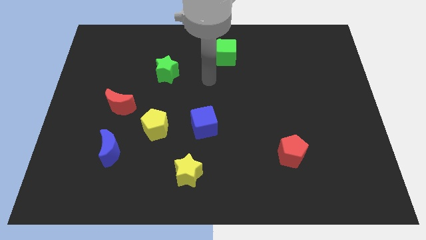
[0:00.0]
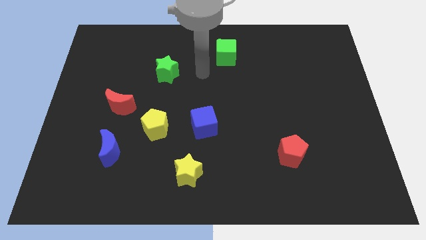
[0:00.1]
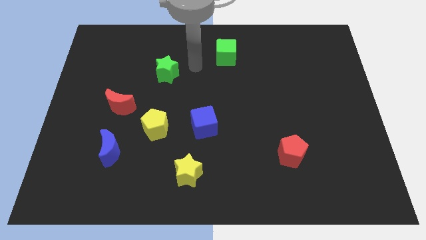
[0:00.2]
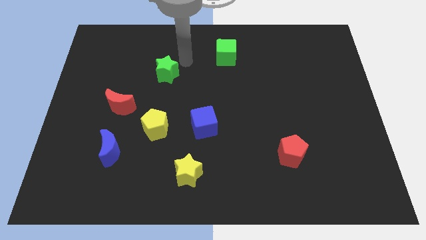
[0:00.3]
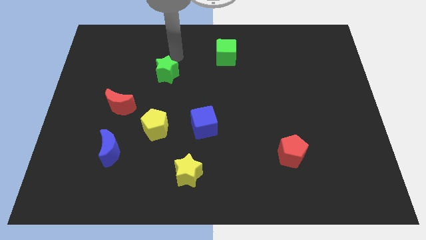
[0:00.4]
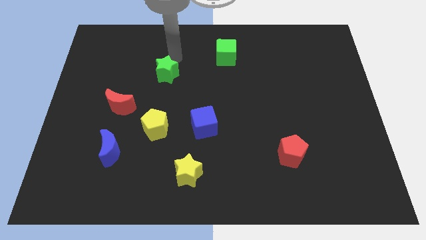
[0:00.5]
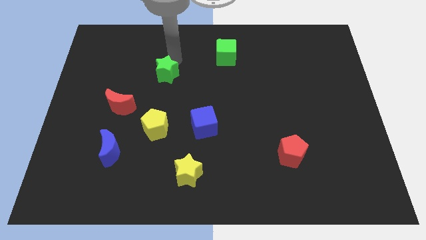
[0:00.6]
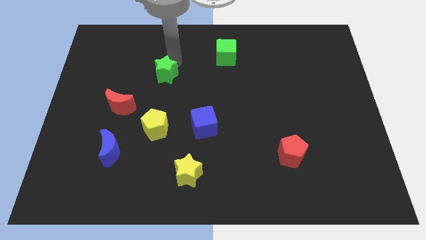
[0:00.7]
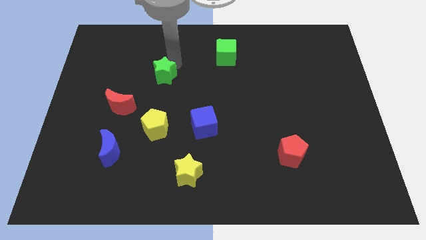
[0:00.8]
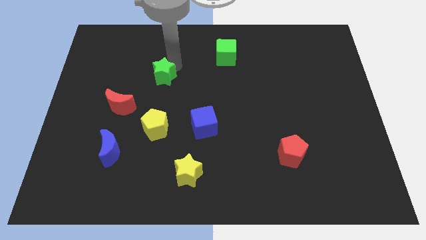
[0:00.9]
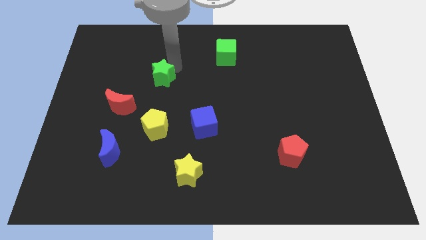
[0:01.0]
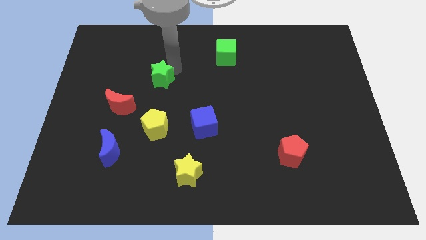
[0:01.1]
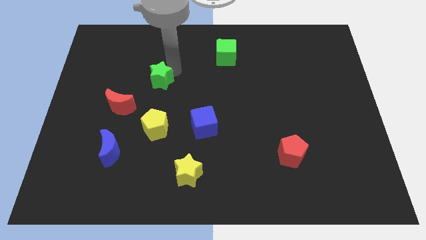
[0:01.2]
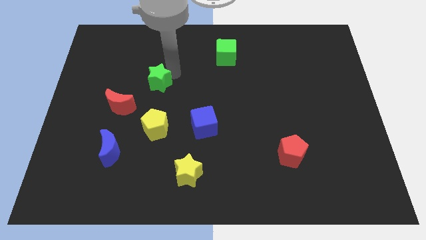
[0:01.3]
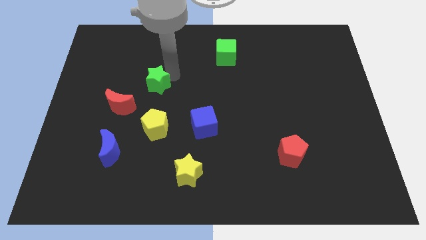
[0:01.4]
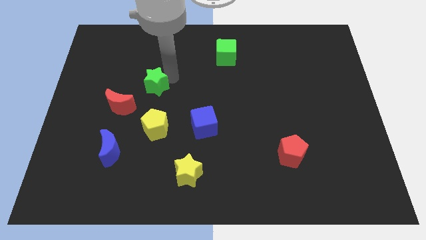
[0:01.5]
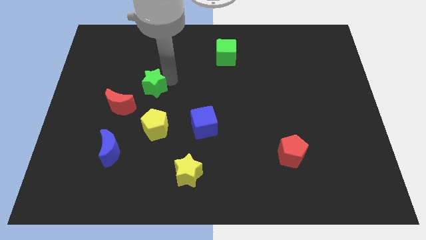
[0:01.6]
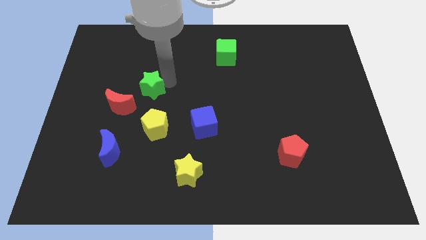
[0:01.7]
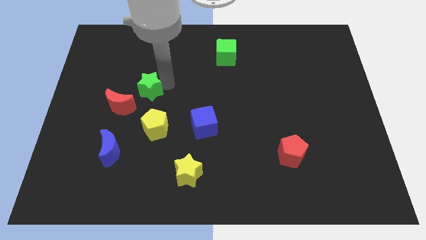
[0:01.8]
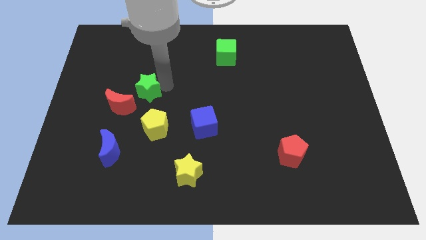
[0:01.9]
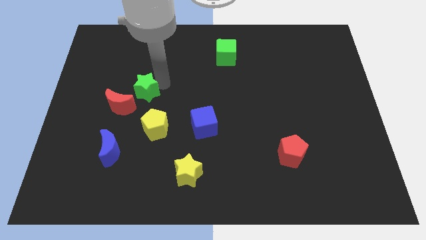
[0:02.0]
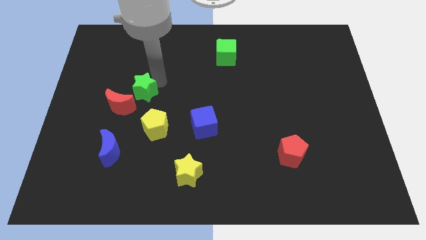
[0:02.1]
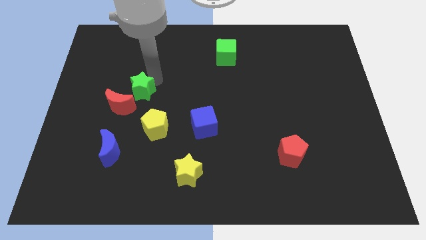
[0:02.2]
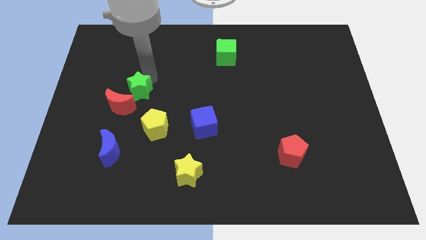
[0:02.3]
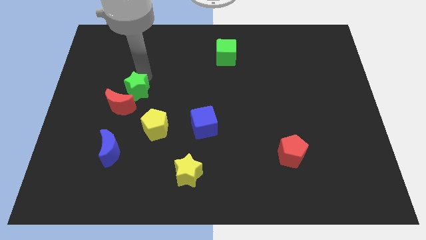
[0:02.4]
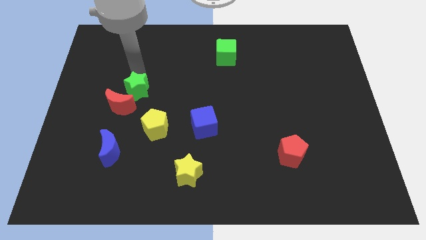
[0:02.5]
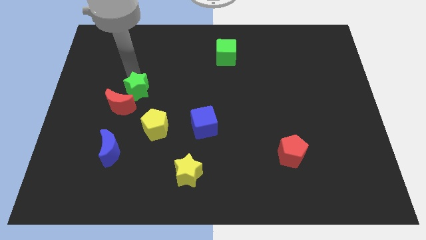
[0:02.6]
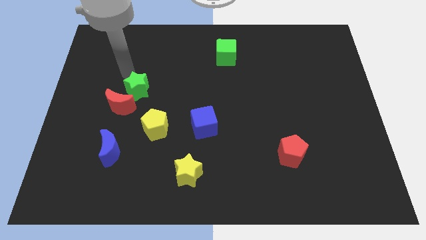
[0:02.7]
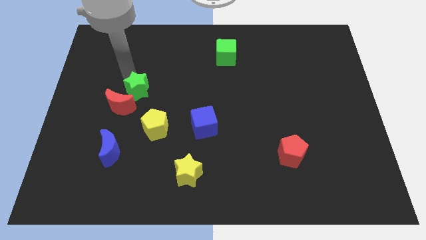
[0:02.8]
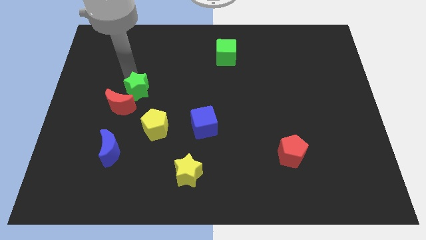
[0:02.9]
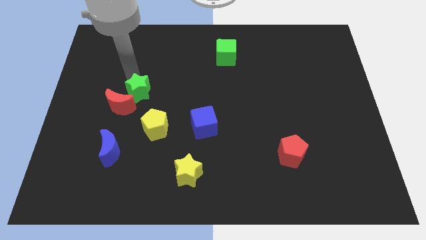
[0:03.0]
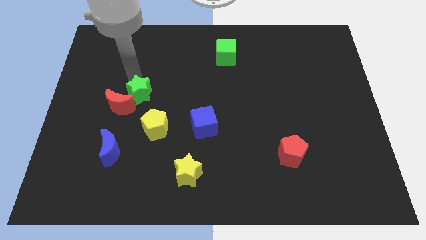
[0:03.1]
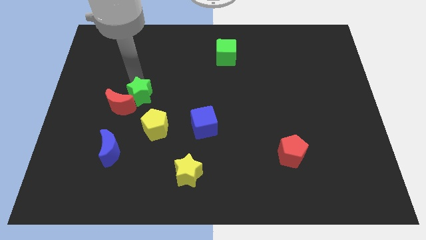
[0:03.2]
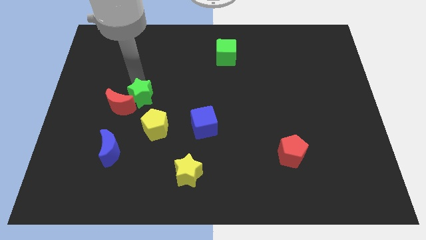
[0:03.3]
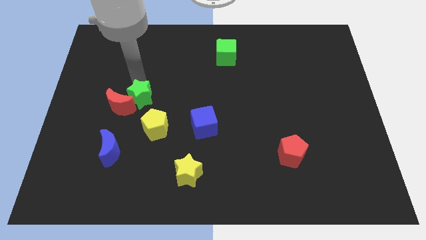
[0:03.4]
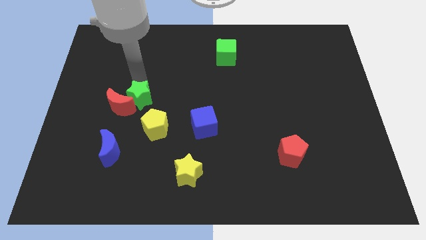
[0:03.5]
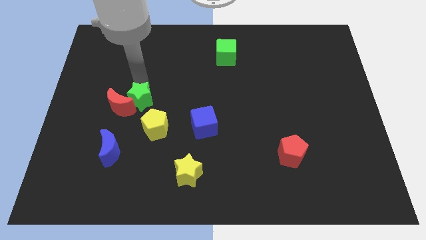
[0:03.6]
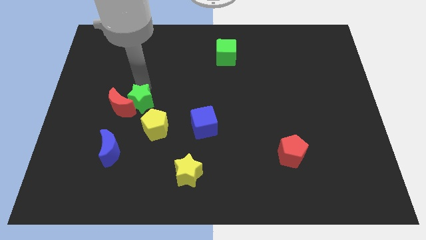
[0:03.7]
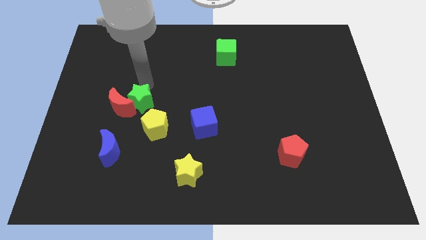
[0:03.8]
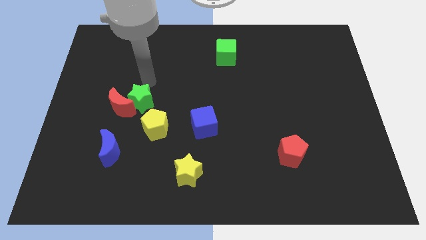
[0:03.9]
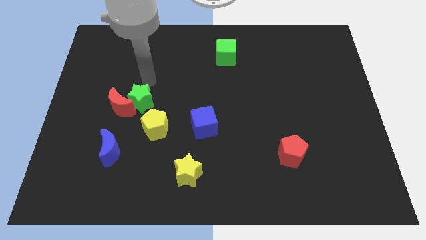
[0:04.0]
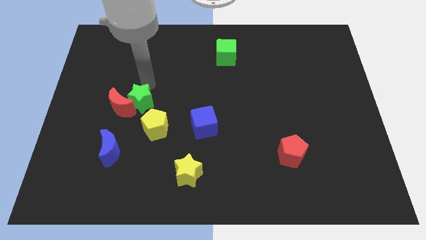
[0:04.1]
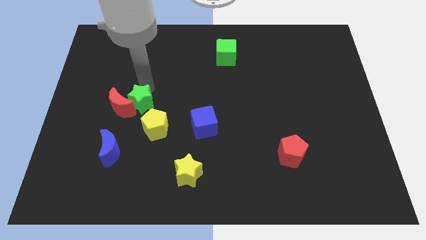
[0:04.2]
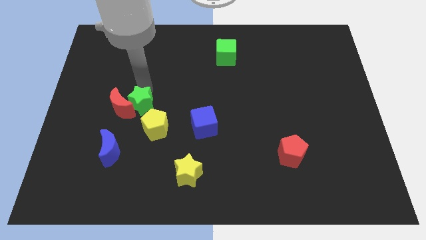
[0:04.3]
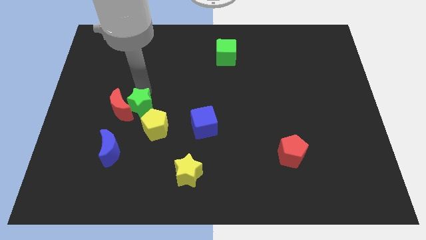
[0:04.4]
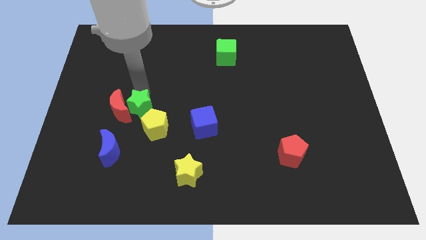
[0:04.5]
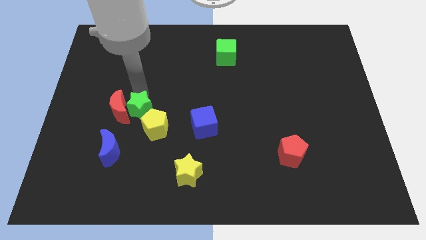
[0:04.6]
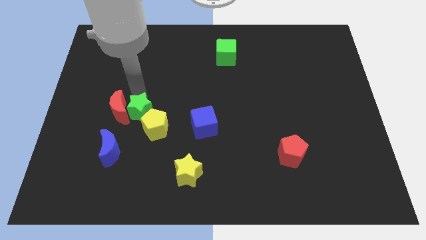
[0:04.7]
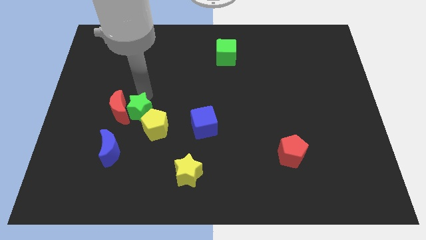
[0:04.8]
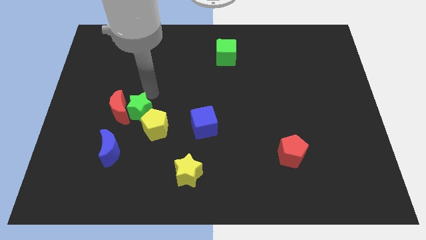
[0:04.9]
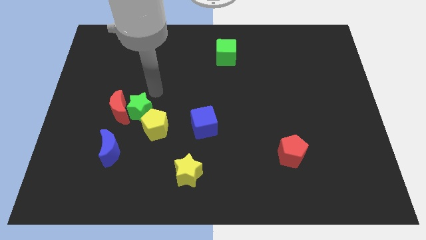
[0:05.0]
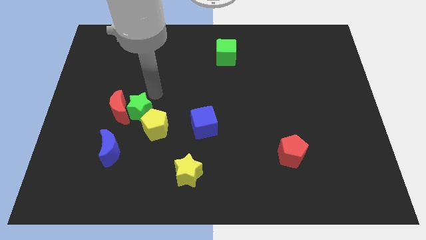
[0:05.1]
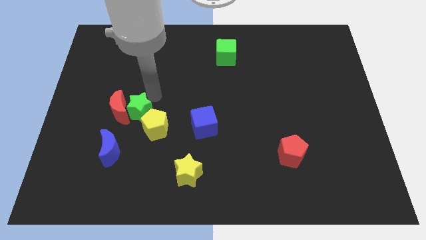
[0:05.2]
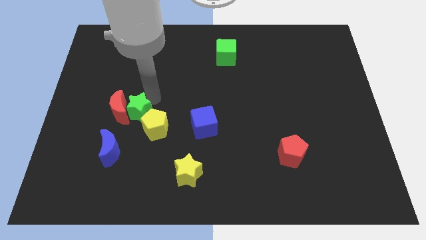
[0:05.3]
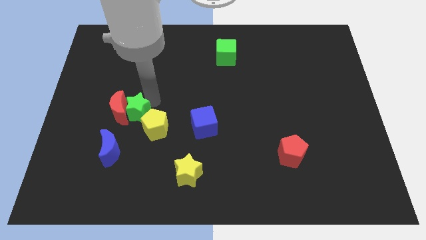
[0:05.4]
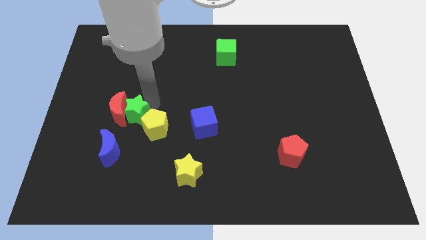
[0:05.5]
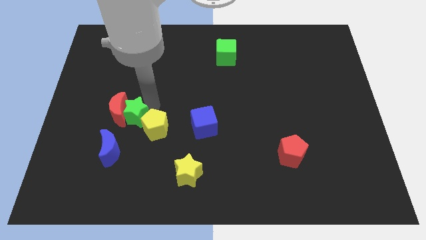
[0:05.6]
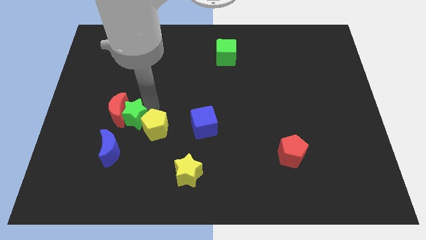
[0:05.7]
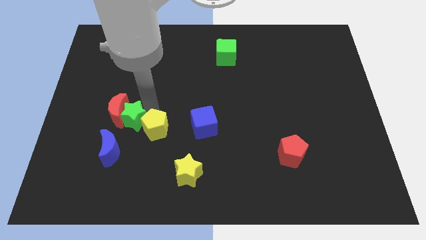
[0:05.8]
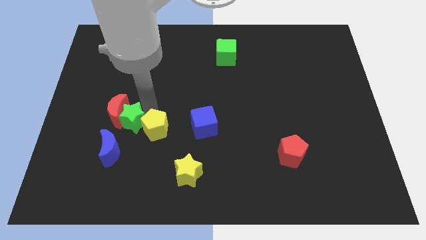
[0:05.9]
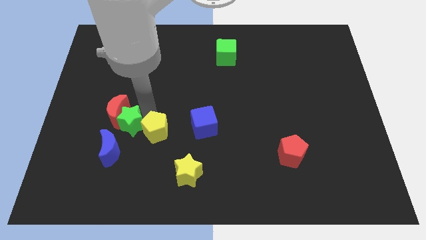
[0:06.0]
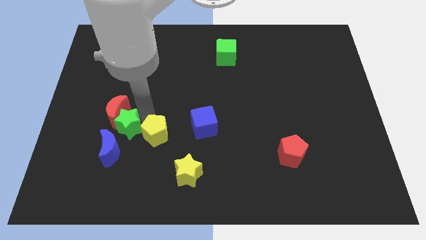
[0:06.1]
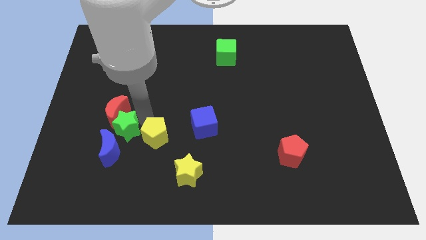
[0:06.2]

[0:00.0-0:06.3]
push the green star next to the blue moon

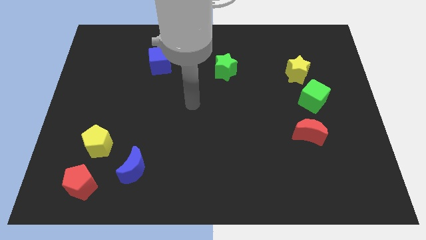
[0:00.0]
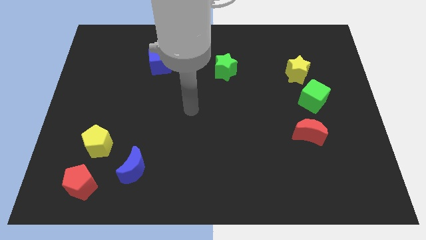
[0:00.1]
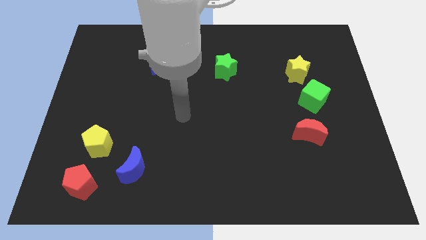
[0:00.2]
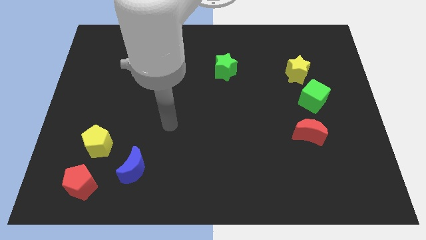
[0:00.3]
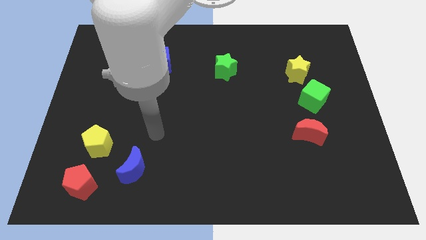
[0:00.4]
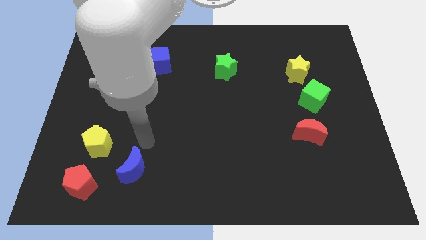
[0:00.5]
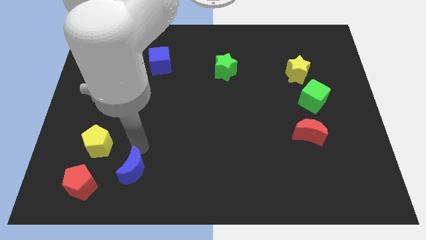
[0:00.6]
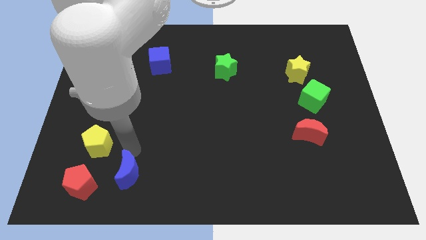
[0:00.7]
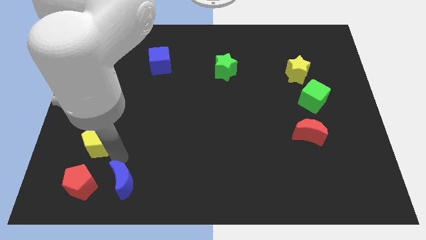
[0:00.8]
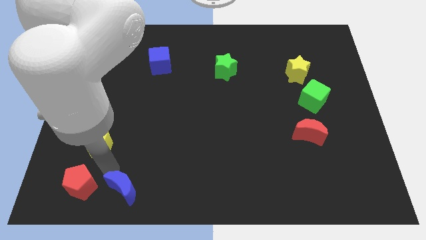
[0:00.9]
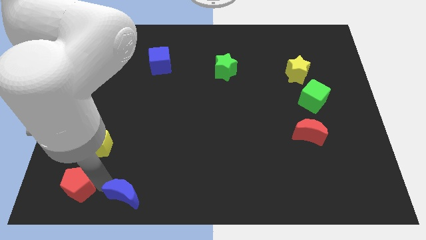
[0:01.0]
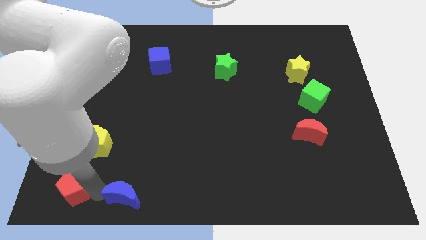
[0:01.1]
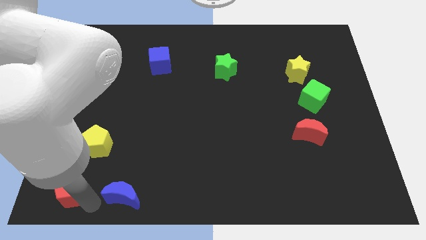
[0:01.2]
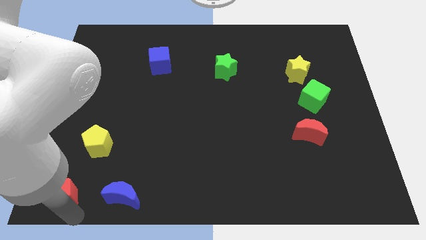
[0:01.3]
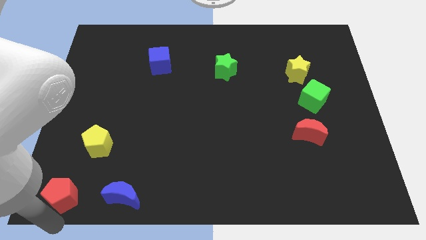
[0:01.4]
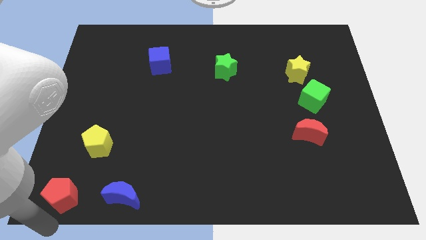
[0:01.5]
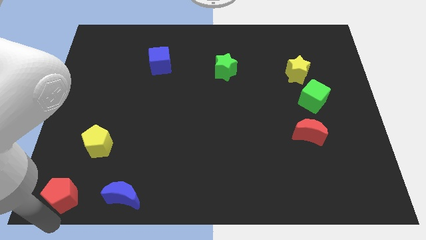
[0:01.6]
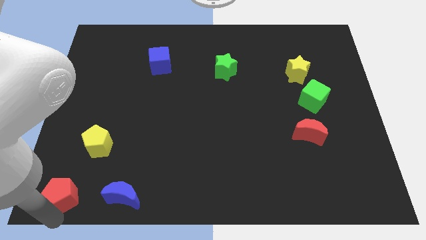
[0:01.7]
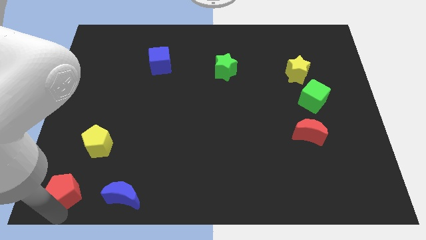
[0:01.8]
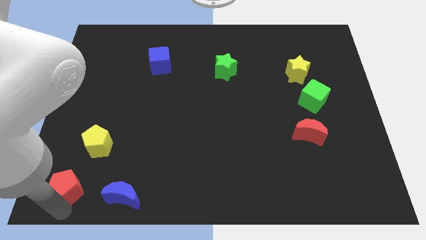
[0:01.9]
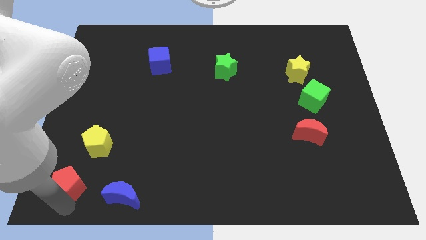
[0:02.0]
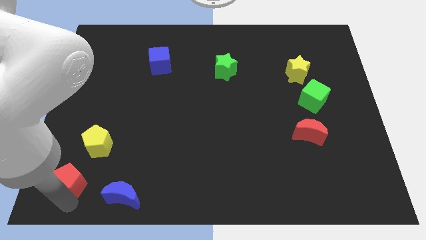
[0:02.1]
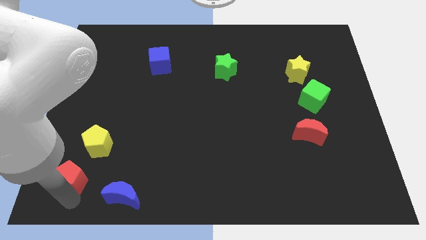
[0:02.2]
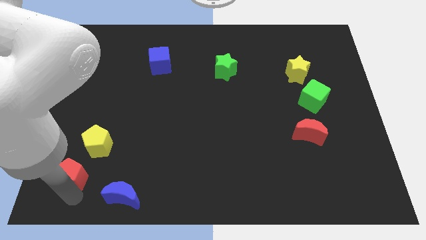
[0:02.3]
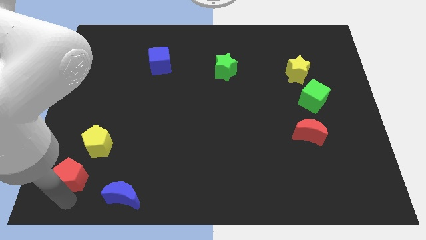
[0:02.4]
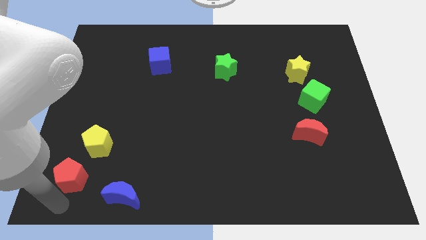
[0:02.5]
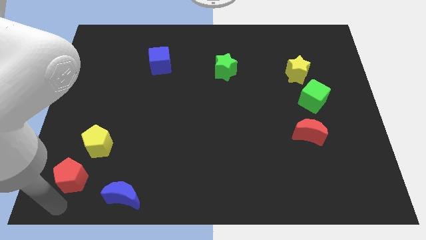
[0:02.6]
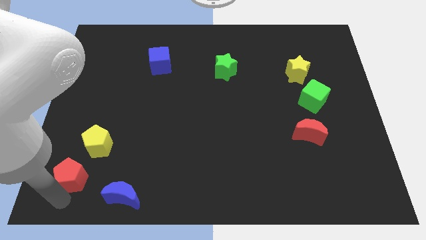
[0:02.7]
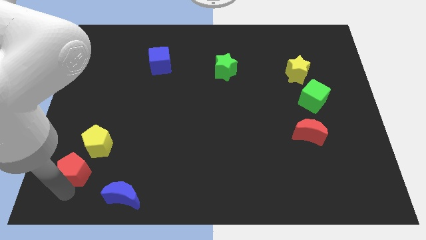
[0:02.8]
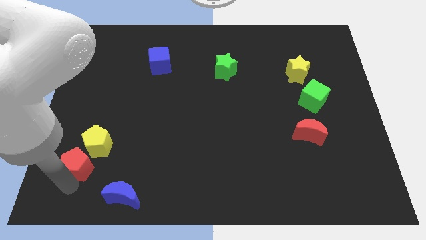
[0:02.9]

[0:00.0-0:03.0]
push the red pentagon towards the yellow pentagon
